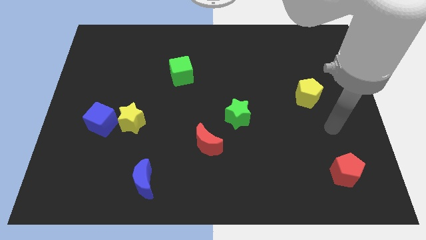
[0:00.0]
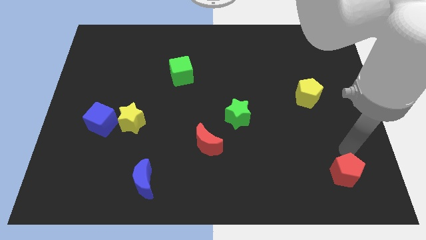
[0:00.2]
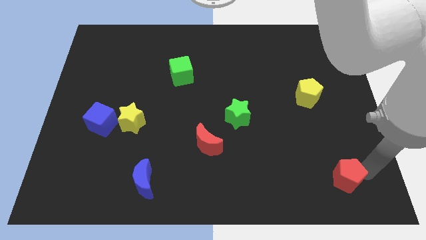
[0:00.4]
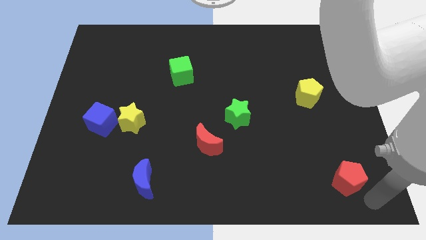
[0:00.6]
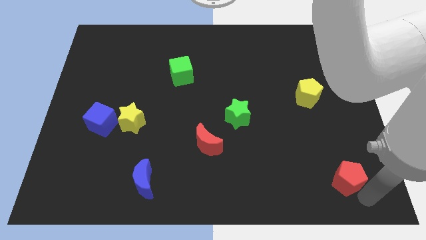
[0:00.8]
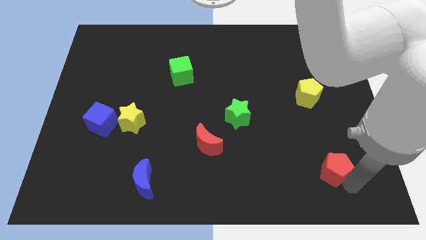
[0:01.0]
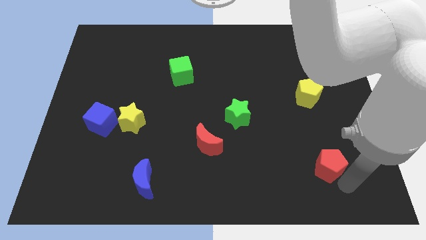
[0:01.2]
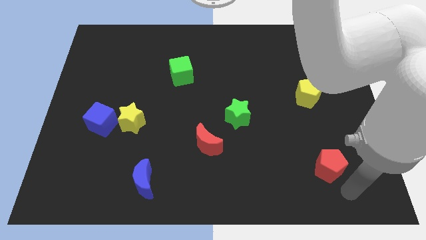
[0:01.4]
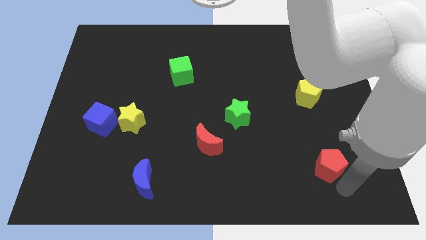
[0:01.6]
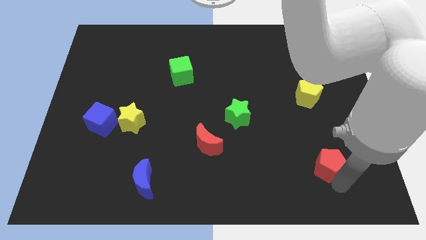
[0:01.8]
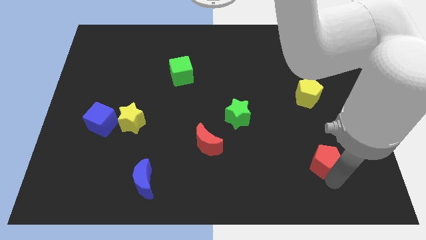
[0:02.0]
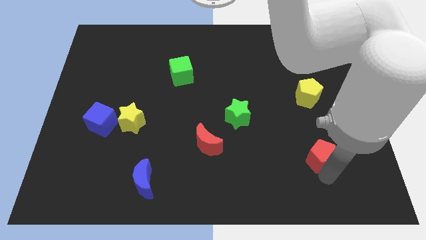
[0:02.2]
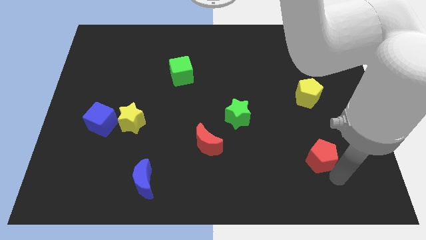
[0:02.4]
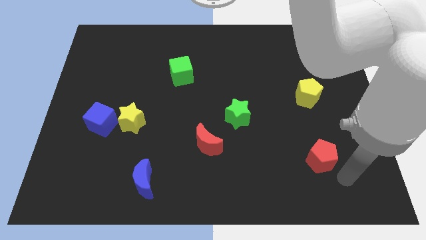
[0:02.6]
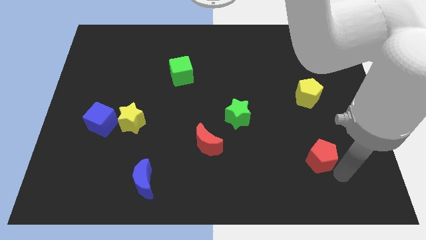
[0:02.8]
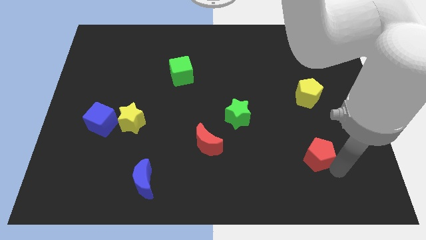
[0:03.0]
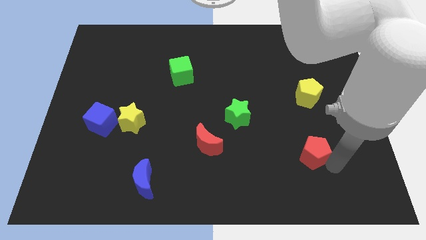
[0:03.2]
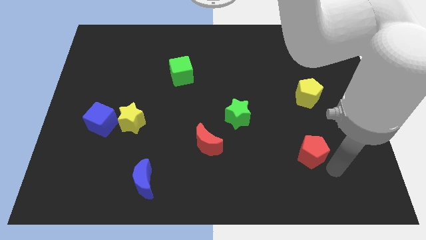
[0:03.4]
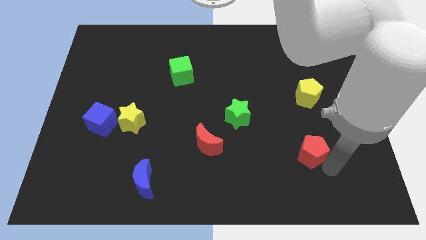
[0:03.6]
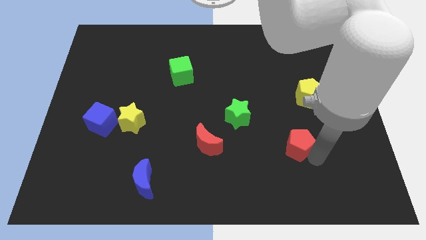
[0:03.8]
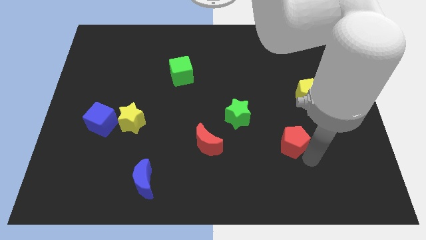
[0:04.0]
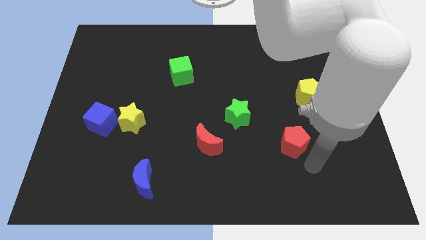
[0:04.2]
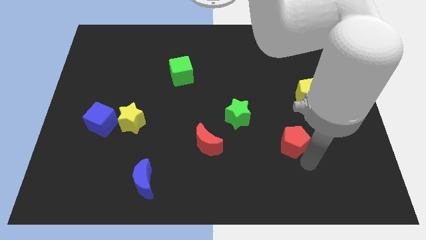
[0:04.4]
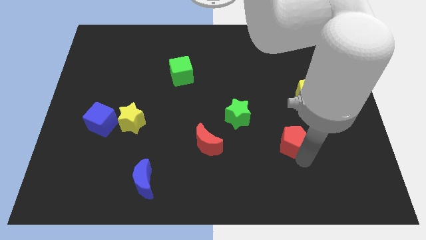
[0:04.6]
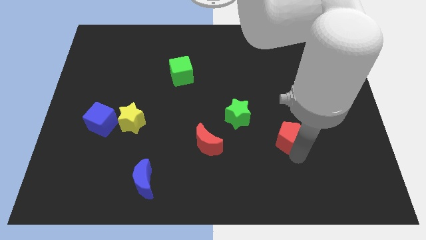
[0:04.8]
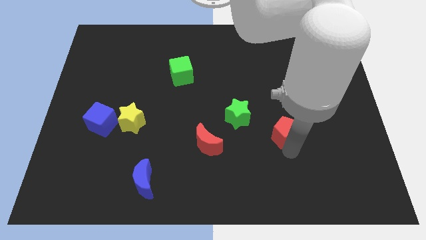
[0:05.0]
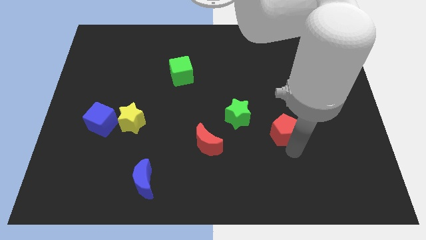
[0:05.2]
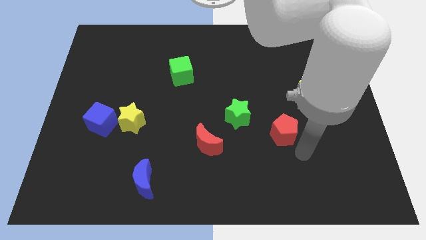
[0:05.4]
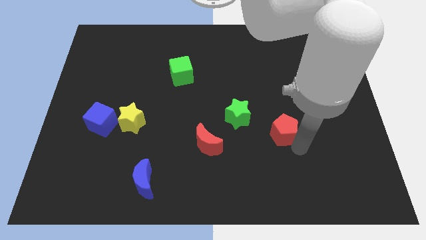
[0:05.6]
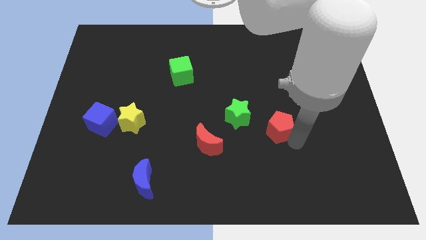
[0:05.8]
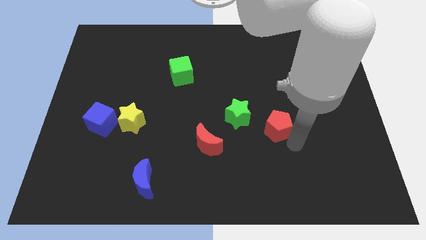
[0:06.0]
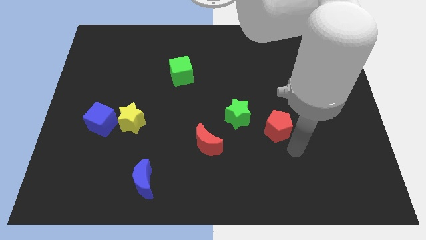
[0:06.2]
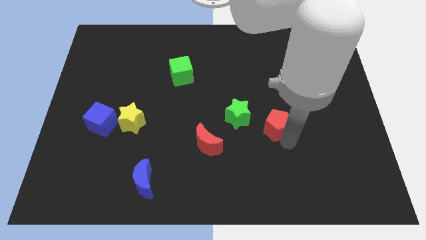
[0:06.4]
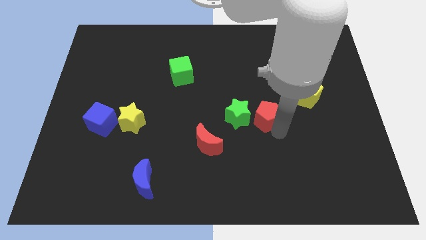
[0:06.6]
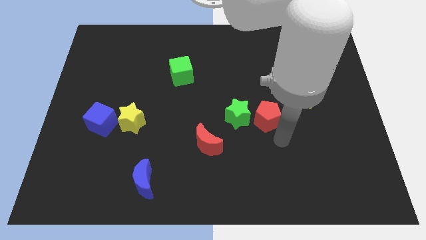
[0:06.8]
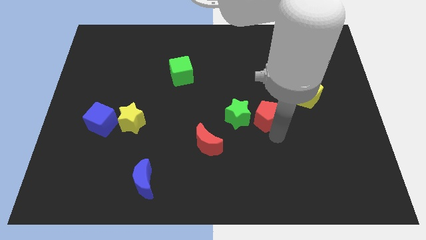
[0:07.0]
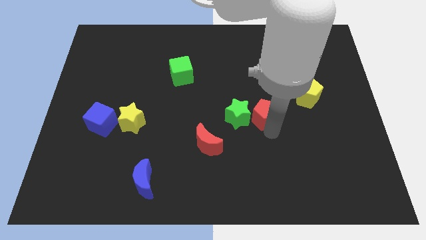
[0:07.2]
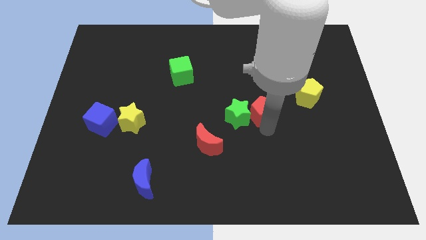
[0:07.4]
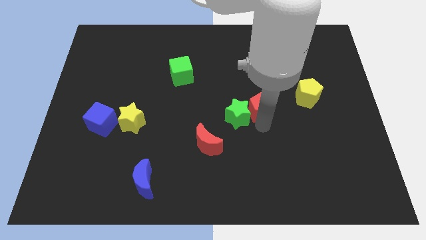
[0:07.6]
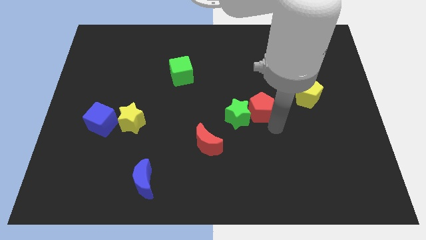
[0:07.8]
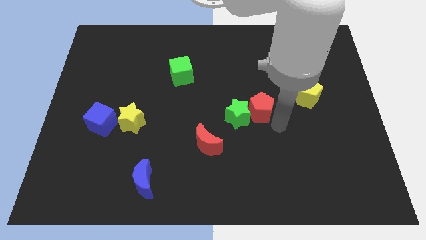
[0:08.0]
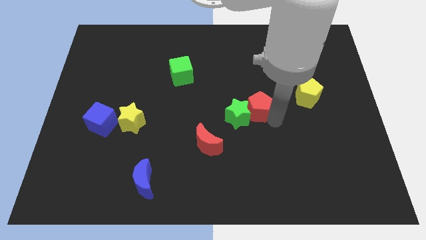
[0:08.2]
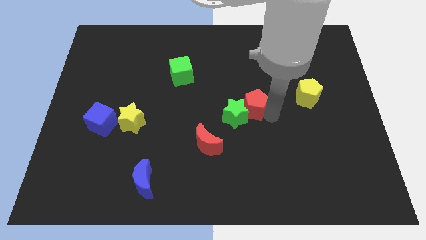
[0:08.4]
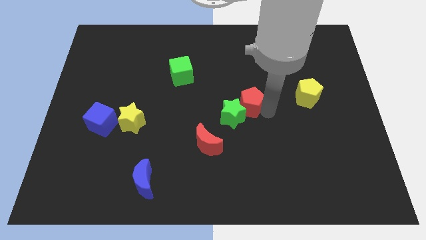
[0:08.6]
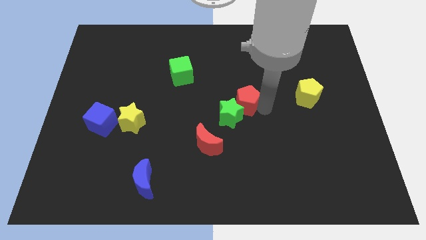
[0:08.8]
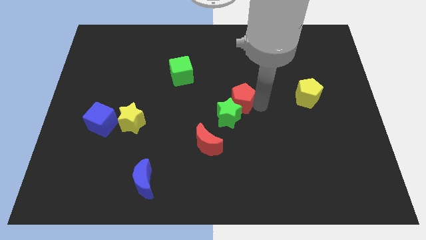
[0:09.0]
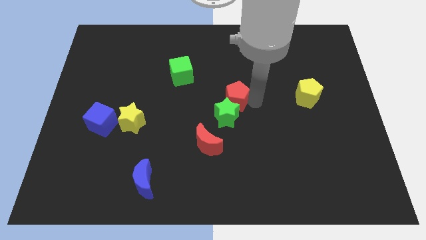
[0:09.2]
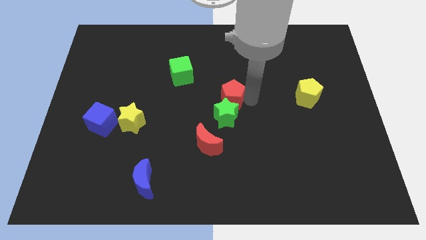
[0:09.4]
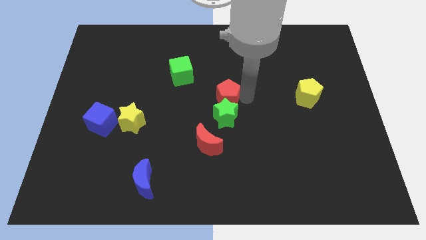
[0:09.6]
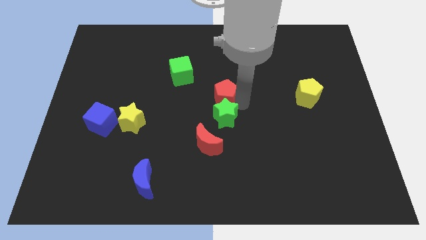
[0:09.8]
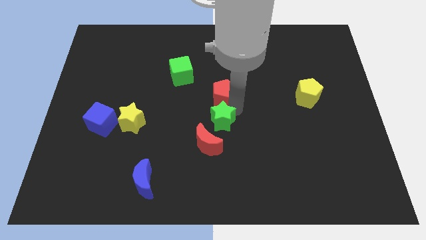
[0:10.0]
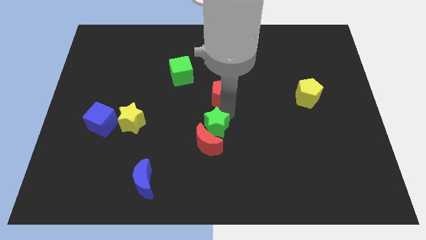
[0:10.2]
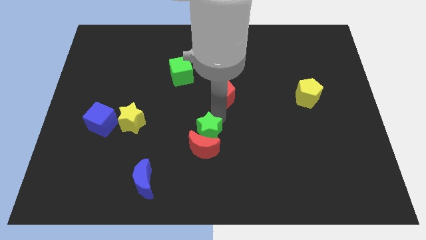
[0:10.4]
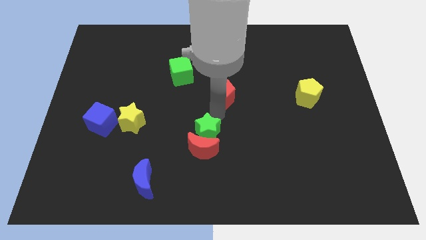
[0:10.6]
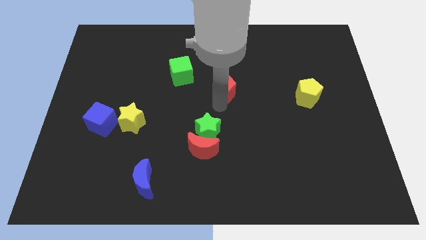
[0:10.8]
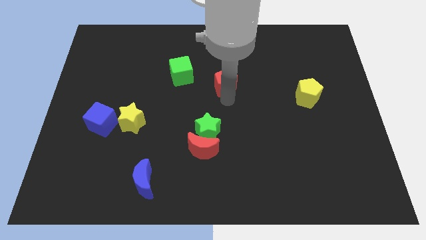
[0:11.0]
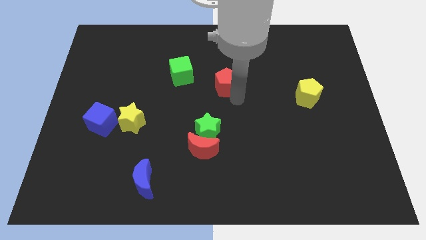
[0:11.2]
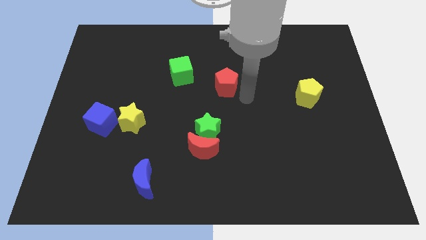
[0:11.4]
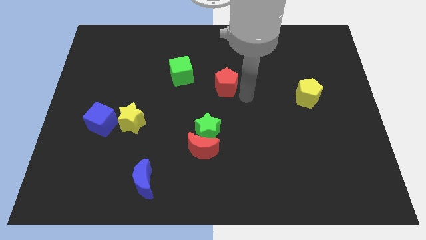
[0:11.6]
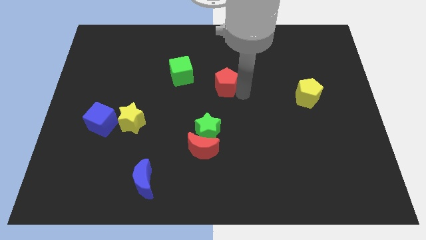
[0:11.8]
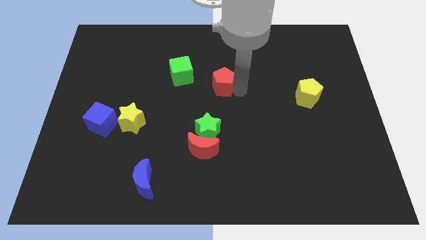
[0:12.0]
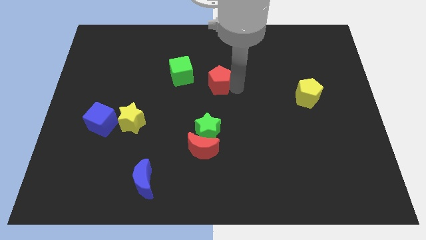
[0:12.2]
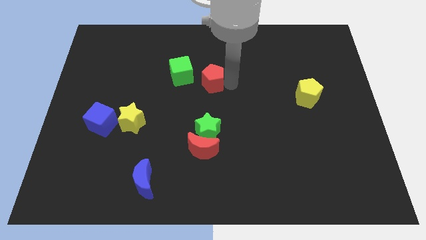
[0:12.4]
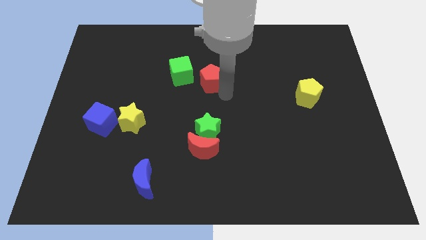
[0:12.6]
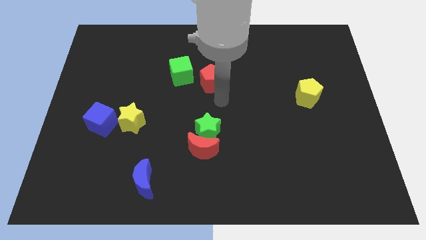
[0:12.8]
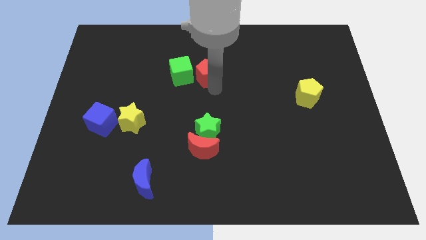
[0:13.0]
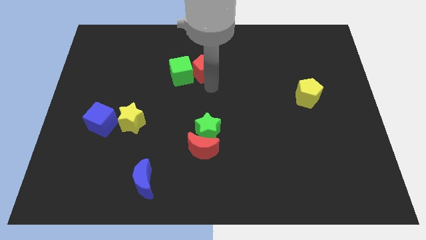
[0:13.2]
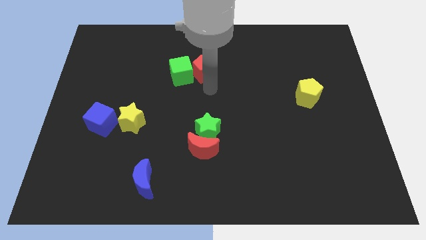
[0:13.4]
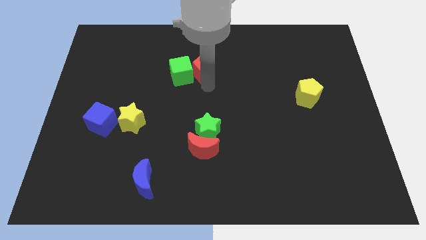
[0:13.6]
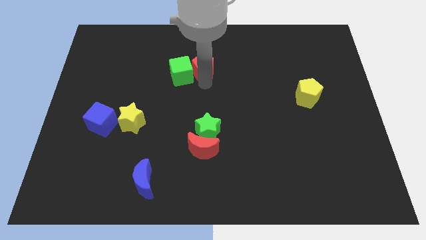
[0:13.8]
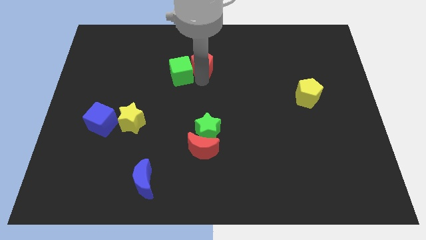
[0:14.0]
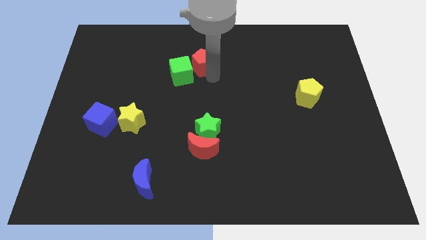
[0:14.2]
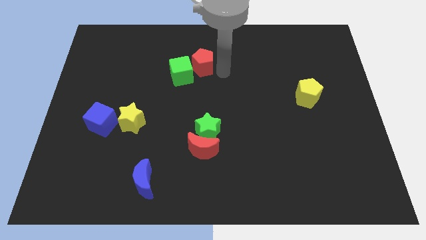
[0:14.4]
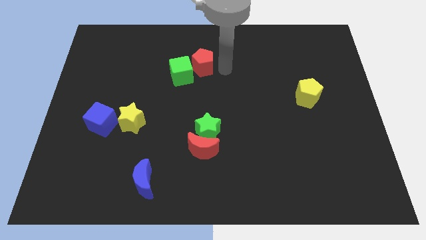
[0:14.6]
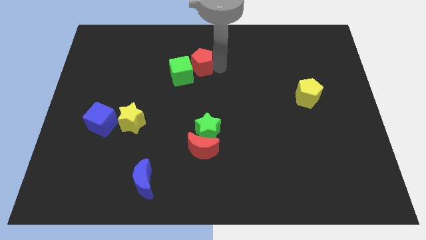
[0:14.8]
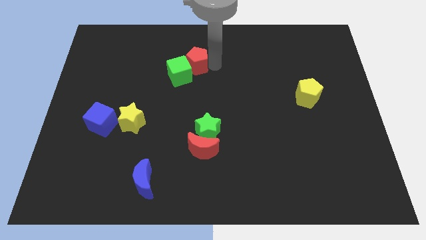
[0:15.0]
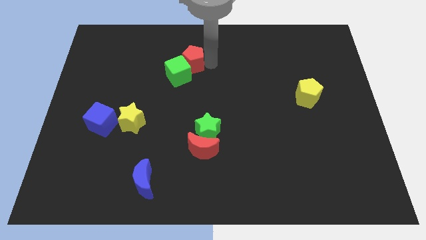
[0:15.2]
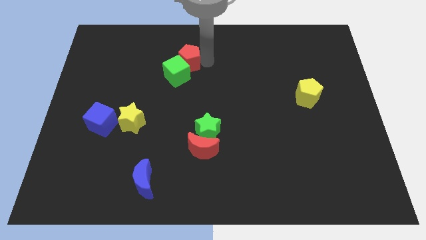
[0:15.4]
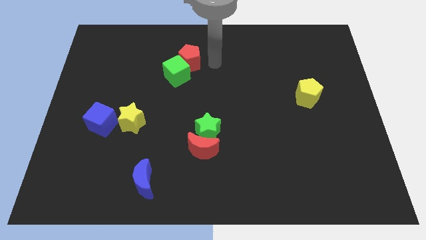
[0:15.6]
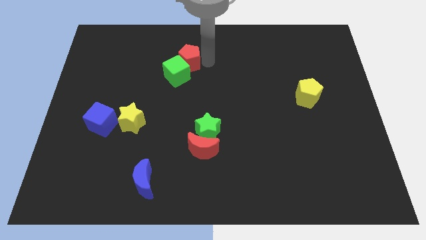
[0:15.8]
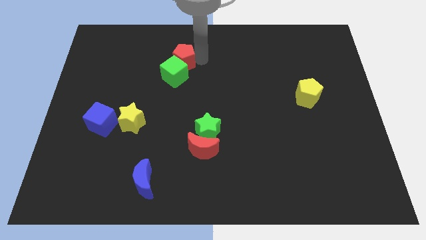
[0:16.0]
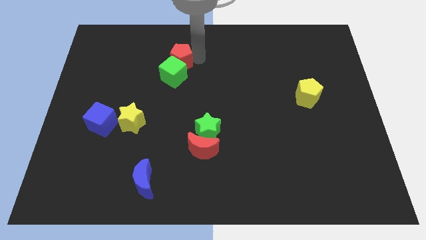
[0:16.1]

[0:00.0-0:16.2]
put the red pentagon to the top left of the green cube
